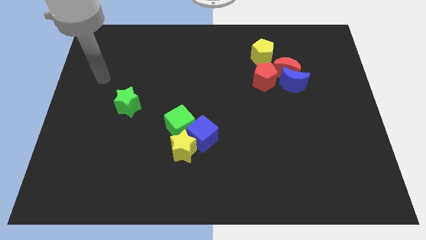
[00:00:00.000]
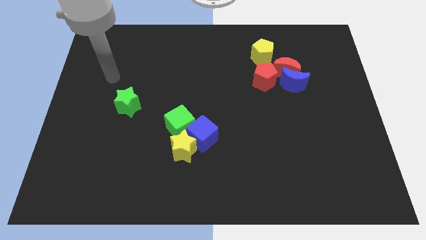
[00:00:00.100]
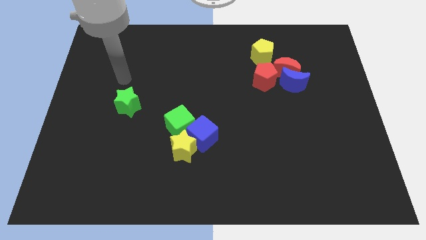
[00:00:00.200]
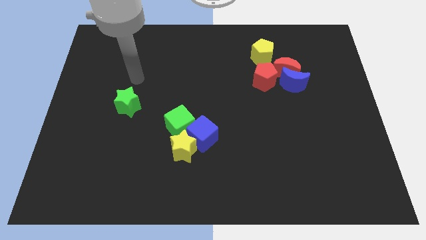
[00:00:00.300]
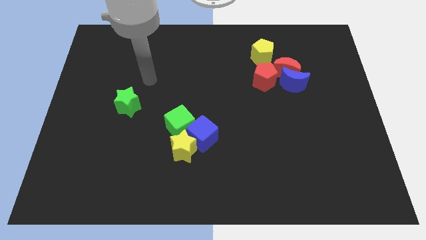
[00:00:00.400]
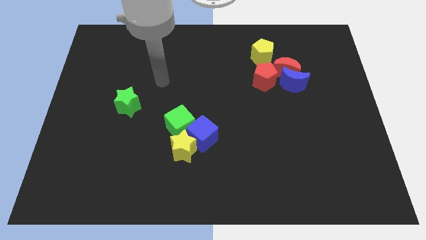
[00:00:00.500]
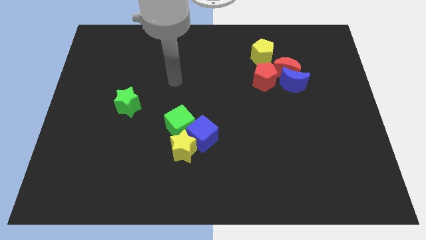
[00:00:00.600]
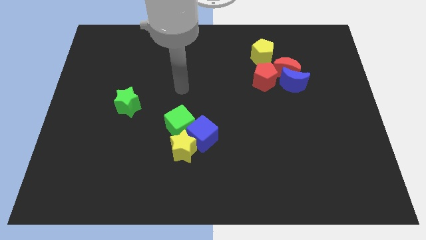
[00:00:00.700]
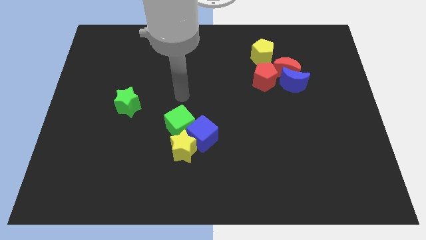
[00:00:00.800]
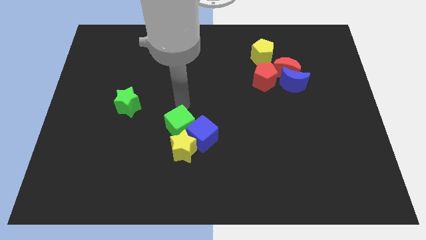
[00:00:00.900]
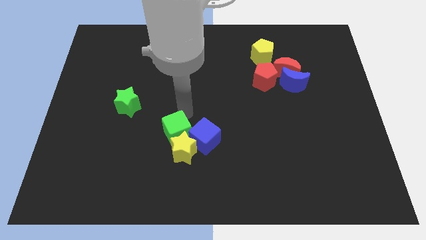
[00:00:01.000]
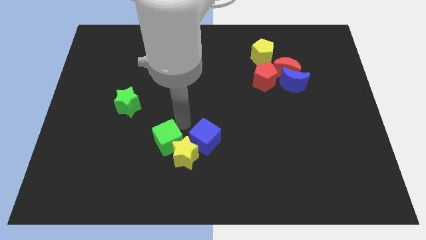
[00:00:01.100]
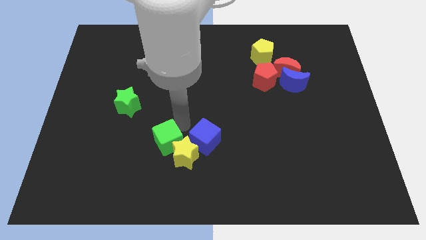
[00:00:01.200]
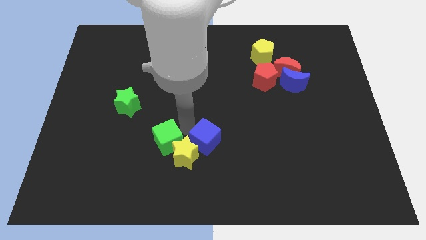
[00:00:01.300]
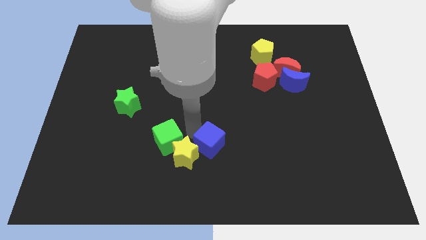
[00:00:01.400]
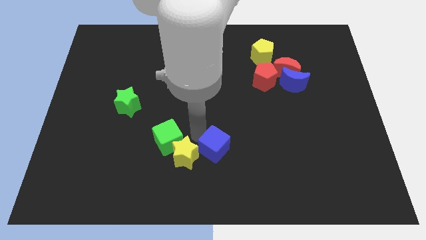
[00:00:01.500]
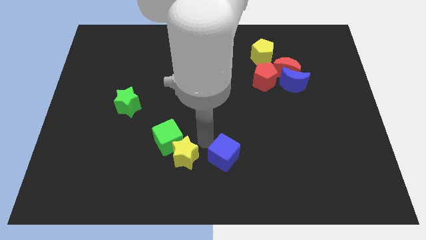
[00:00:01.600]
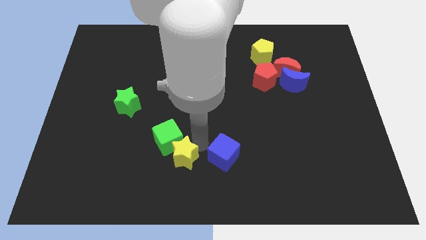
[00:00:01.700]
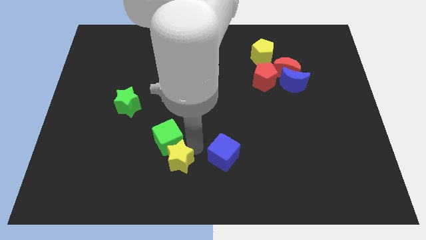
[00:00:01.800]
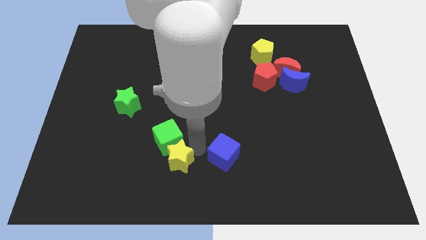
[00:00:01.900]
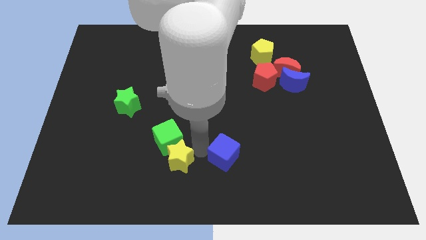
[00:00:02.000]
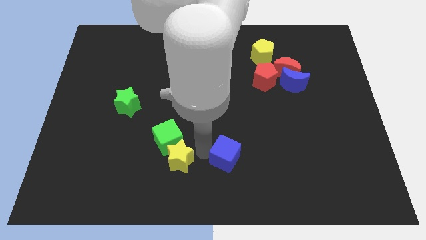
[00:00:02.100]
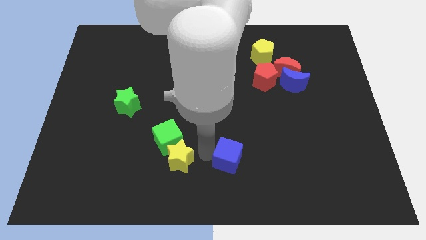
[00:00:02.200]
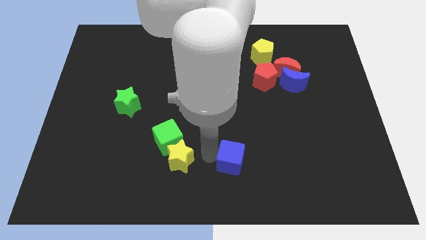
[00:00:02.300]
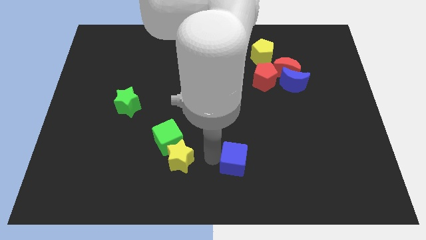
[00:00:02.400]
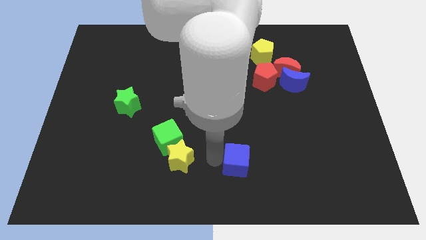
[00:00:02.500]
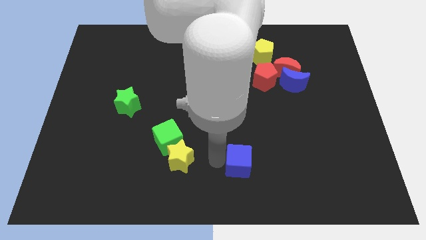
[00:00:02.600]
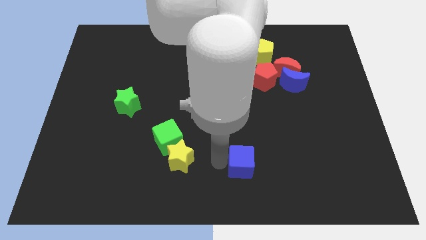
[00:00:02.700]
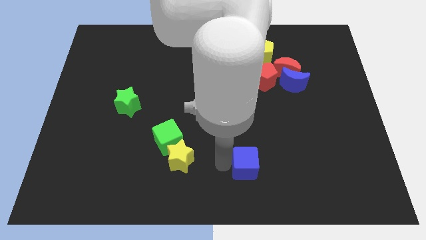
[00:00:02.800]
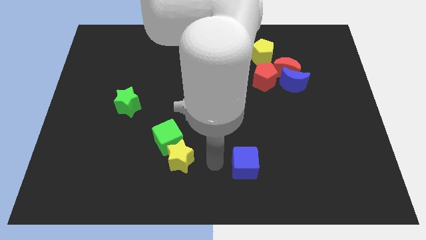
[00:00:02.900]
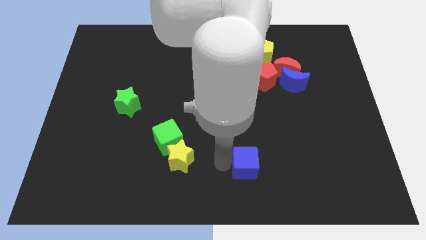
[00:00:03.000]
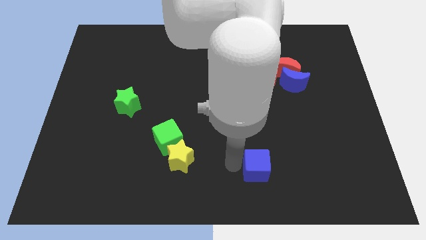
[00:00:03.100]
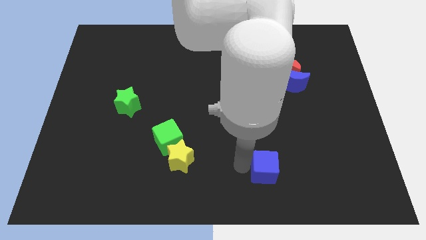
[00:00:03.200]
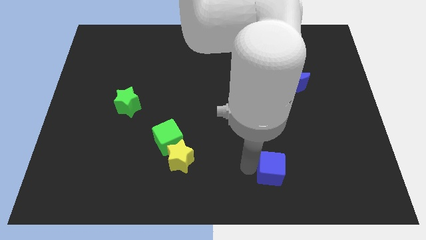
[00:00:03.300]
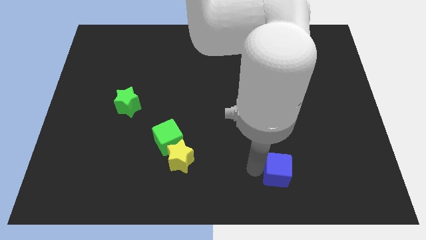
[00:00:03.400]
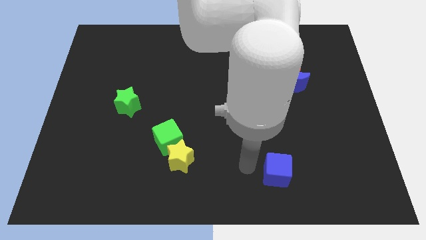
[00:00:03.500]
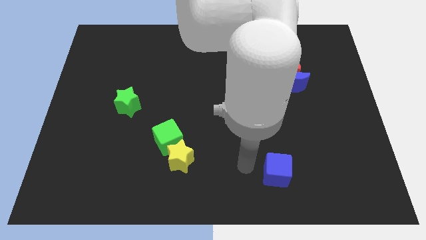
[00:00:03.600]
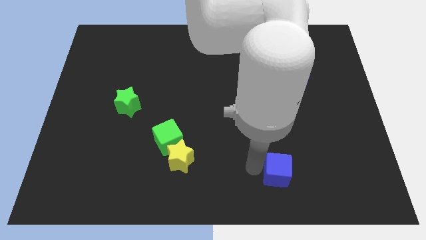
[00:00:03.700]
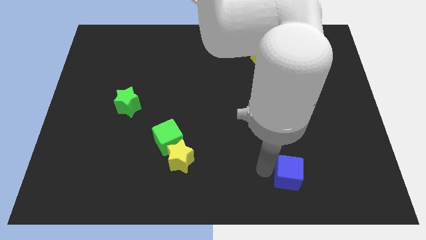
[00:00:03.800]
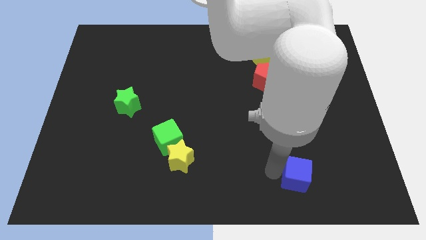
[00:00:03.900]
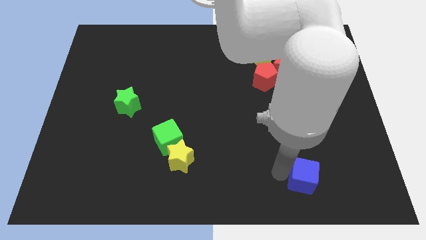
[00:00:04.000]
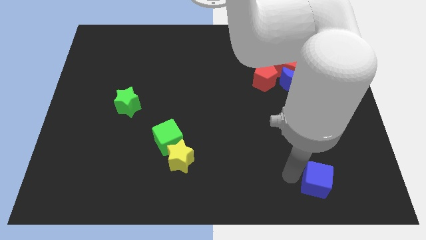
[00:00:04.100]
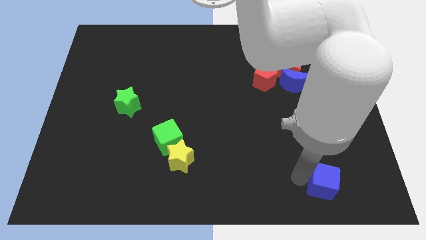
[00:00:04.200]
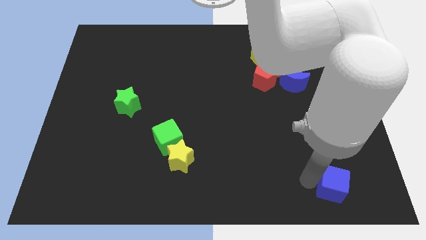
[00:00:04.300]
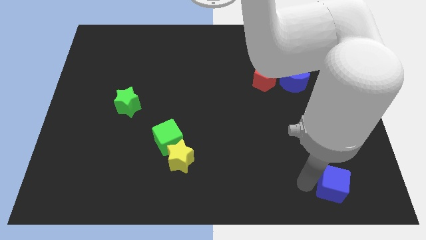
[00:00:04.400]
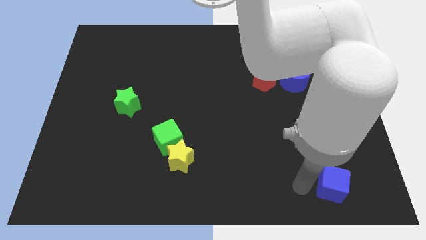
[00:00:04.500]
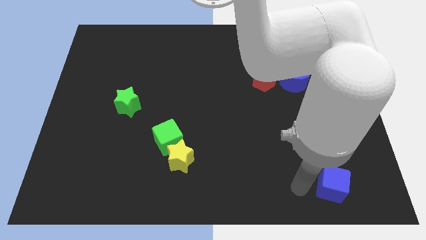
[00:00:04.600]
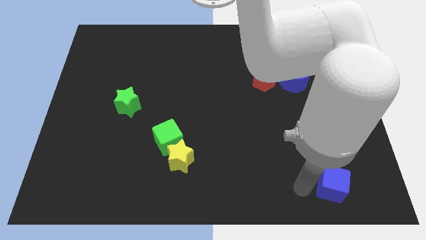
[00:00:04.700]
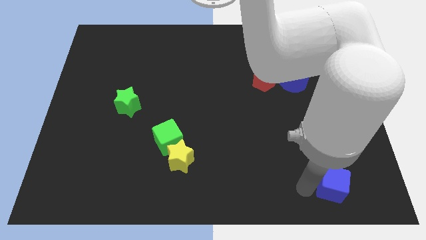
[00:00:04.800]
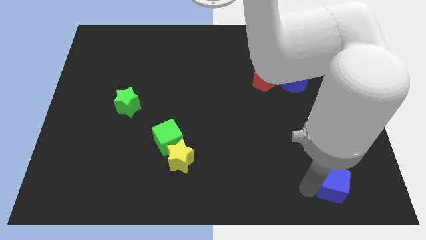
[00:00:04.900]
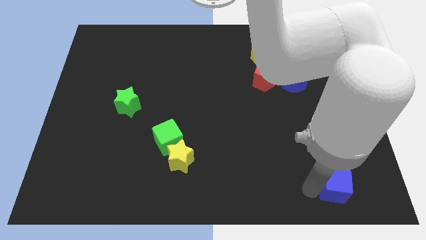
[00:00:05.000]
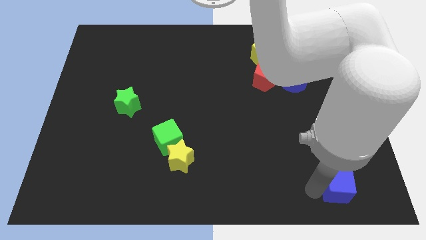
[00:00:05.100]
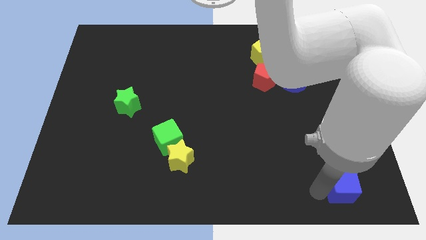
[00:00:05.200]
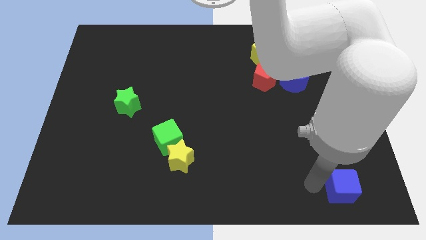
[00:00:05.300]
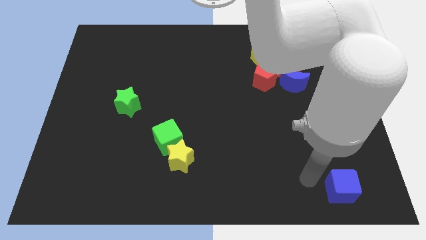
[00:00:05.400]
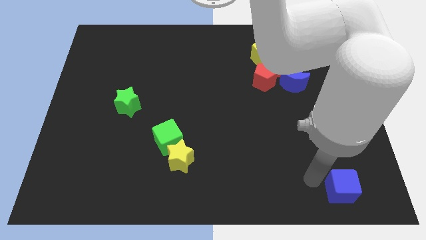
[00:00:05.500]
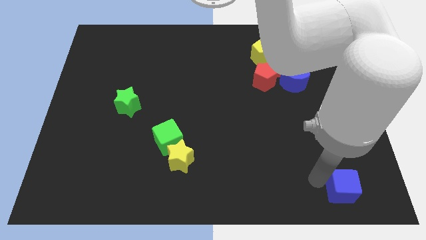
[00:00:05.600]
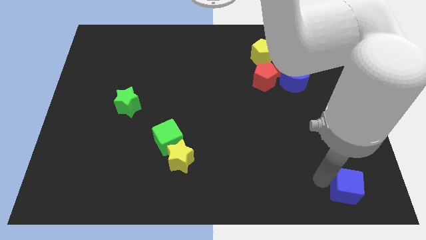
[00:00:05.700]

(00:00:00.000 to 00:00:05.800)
slide the blue cube to the bottom right
